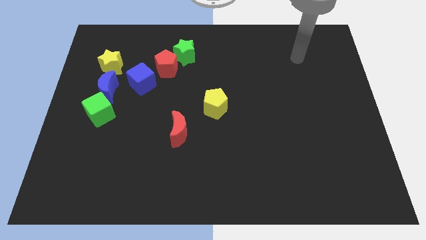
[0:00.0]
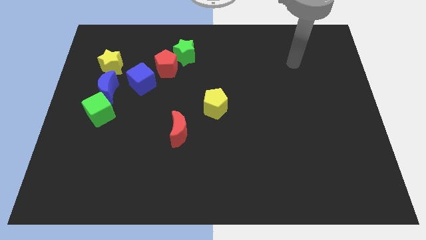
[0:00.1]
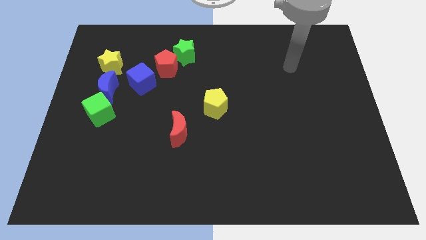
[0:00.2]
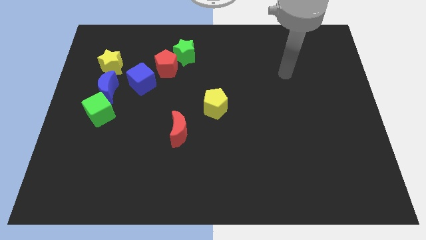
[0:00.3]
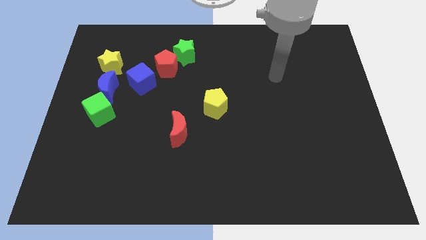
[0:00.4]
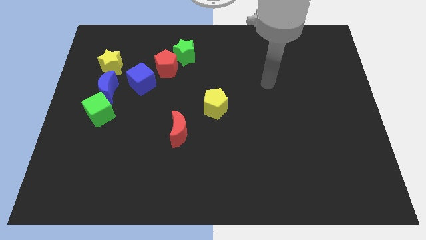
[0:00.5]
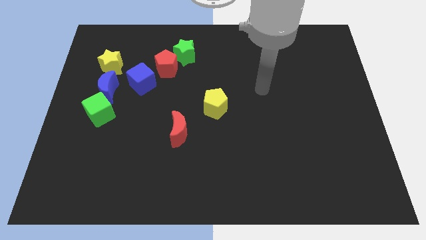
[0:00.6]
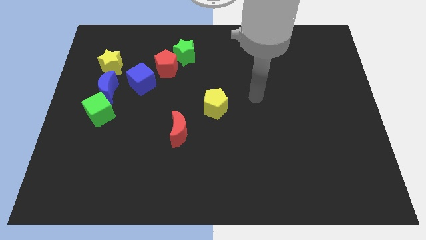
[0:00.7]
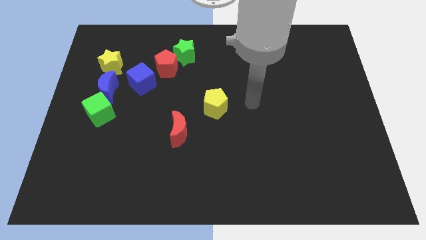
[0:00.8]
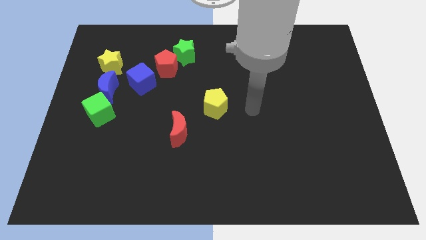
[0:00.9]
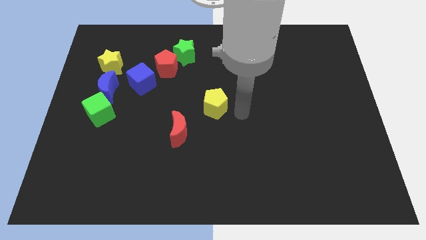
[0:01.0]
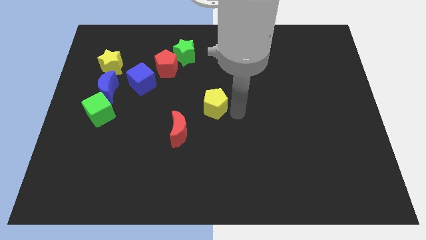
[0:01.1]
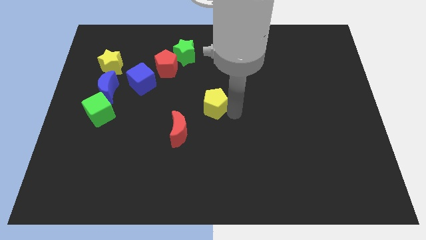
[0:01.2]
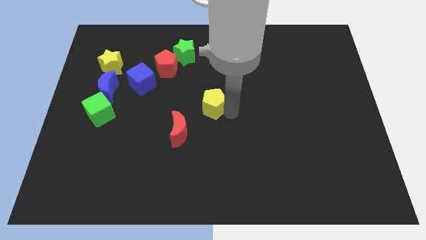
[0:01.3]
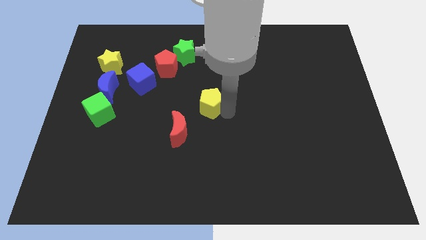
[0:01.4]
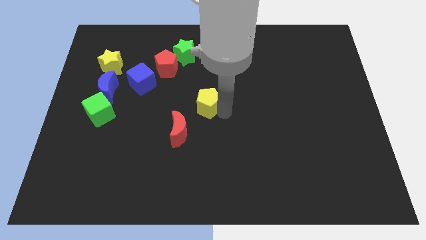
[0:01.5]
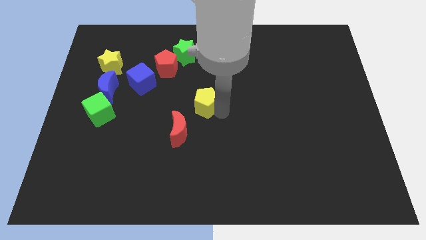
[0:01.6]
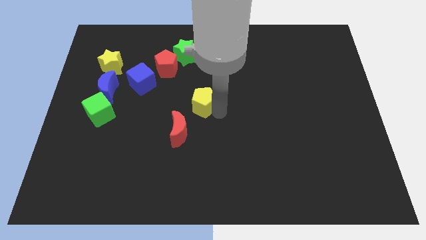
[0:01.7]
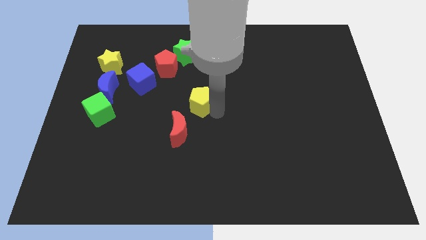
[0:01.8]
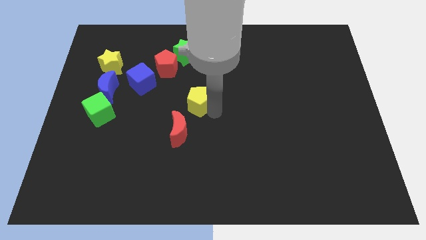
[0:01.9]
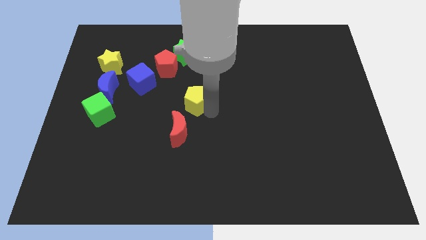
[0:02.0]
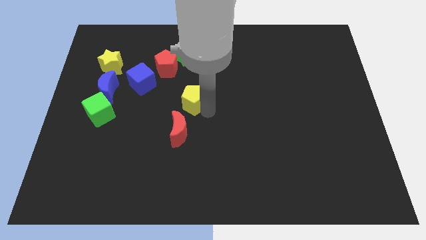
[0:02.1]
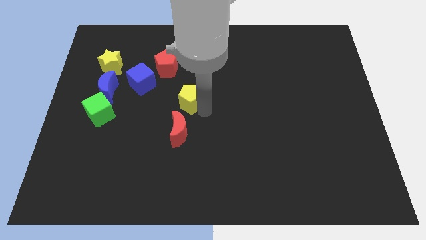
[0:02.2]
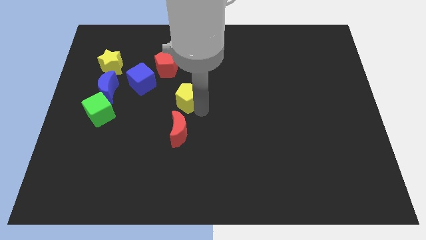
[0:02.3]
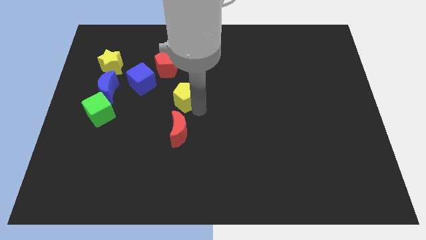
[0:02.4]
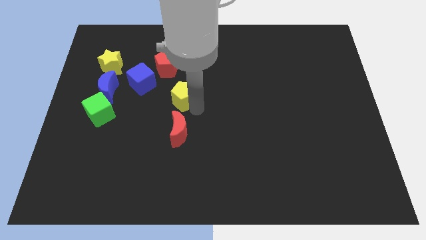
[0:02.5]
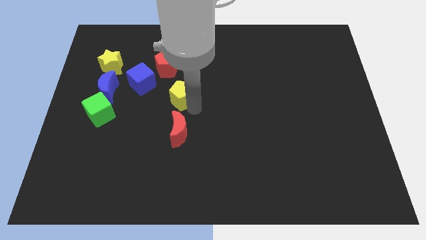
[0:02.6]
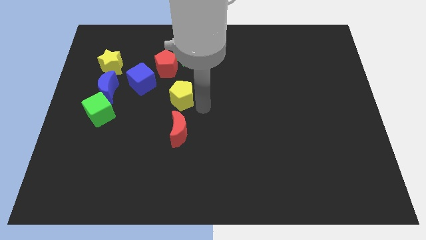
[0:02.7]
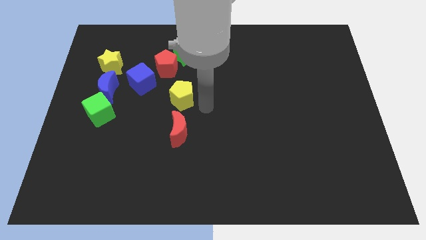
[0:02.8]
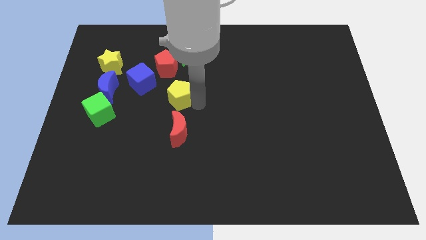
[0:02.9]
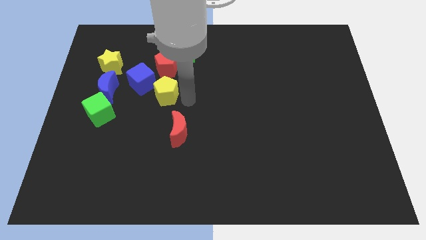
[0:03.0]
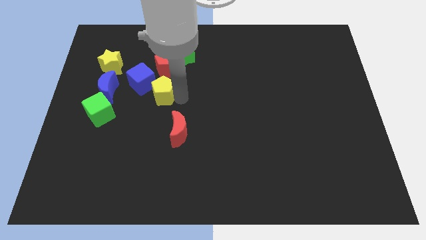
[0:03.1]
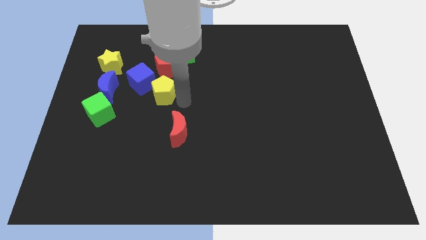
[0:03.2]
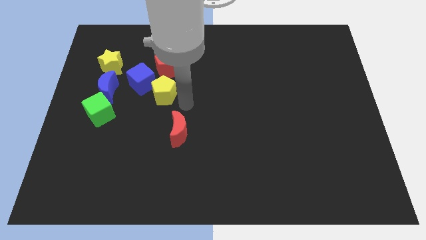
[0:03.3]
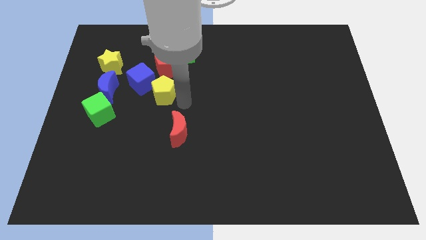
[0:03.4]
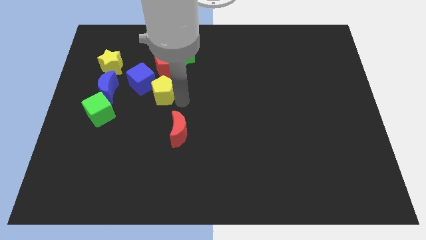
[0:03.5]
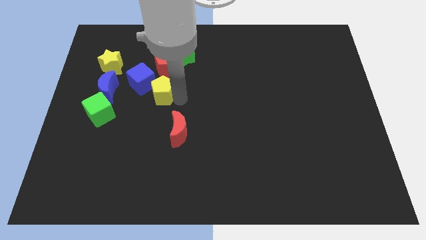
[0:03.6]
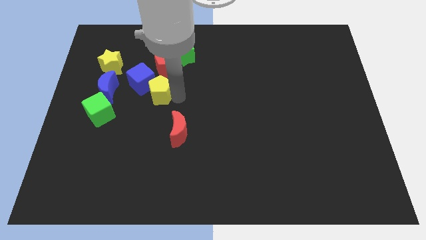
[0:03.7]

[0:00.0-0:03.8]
put the yellow pentagon towards the blue cube

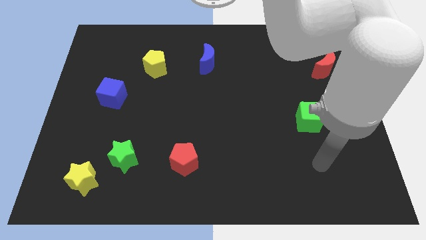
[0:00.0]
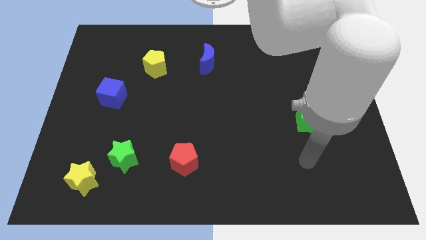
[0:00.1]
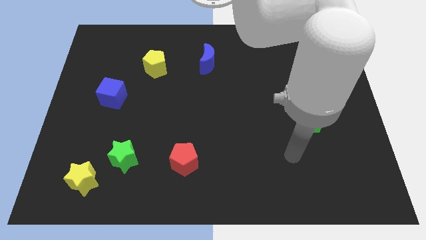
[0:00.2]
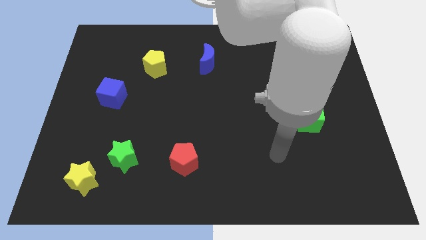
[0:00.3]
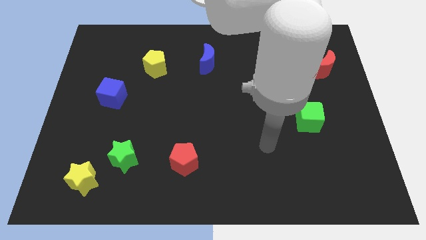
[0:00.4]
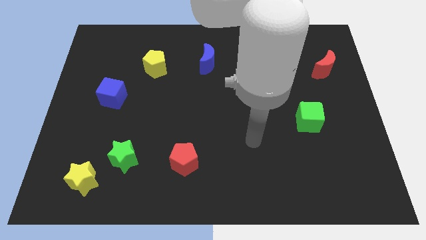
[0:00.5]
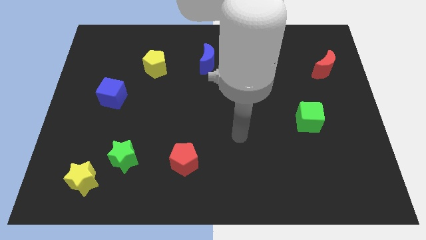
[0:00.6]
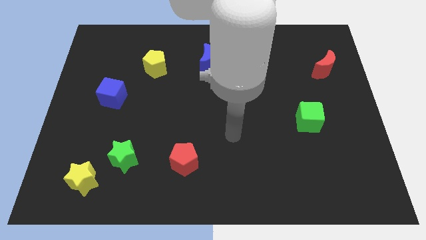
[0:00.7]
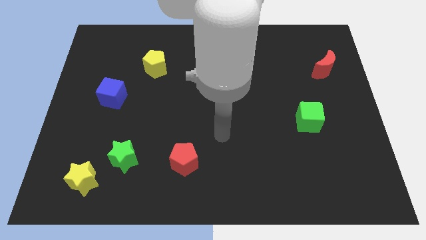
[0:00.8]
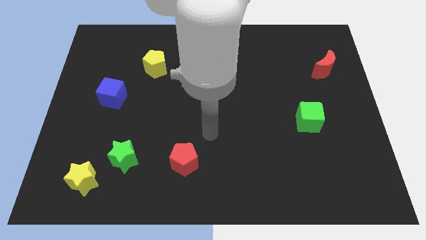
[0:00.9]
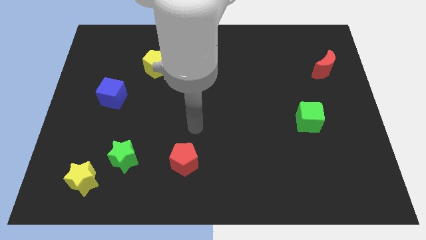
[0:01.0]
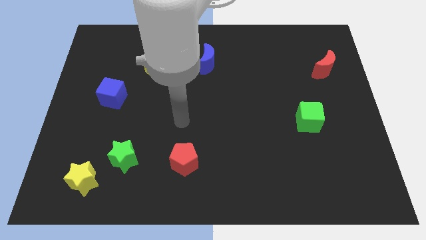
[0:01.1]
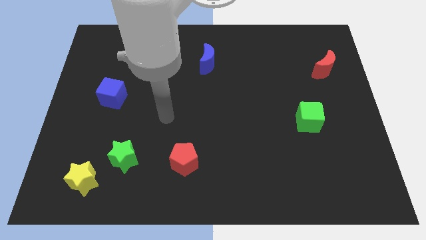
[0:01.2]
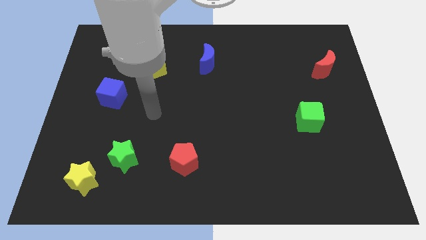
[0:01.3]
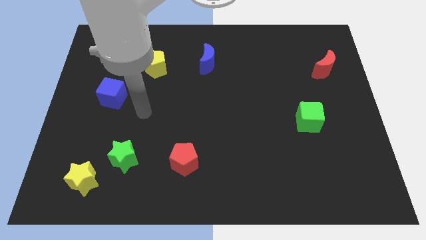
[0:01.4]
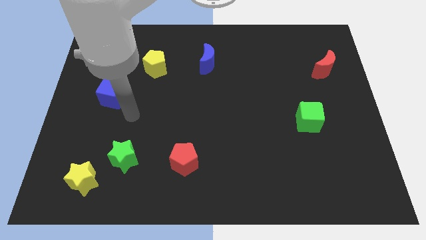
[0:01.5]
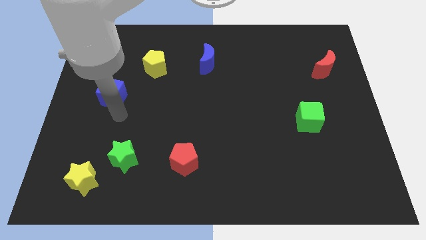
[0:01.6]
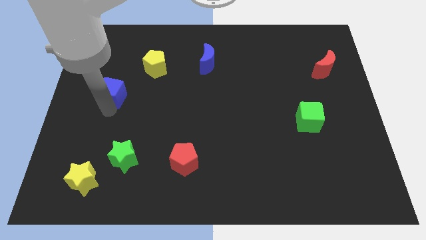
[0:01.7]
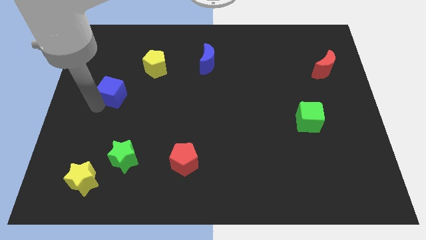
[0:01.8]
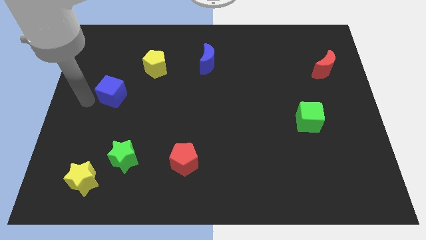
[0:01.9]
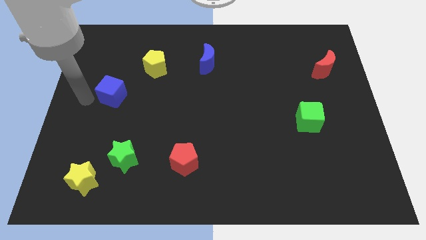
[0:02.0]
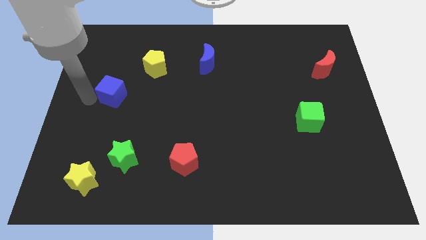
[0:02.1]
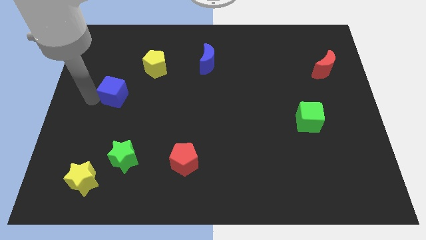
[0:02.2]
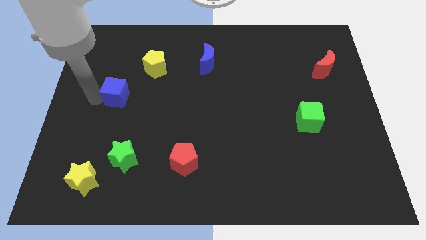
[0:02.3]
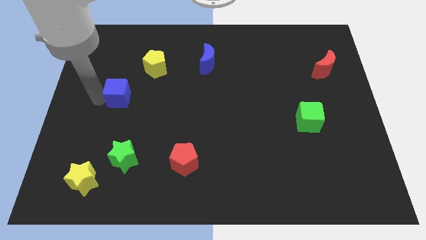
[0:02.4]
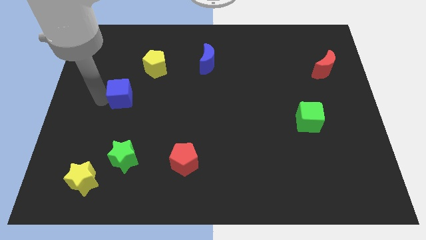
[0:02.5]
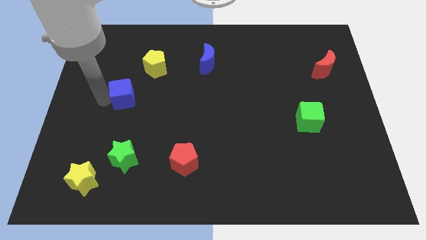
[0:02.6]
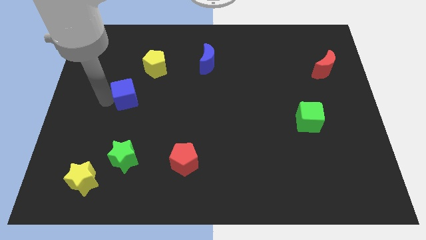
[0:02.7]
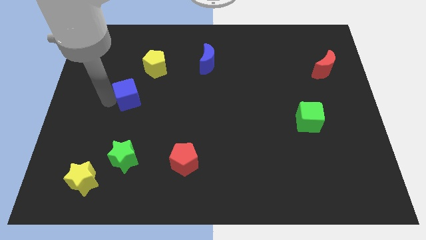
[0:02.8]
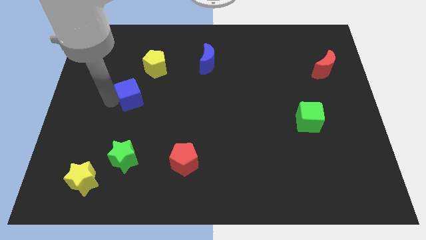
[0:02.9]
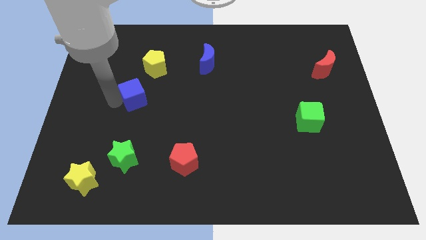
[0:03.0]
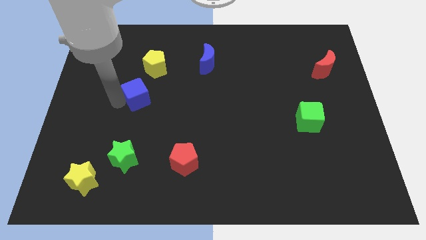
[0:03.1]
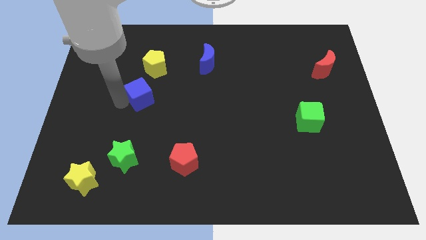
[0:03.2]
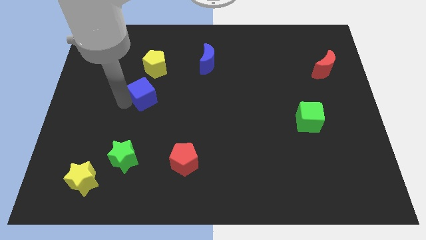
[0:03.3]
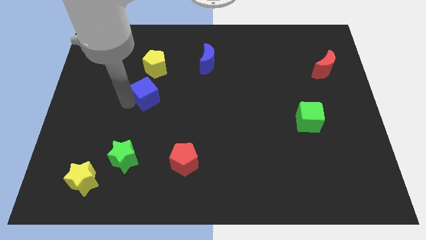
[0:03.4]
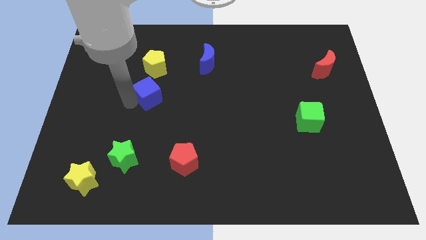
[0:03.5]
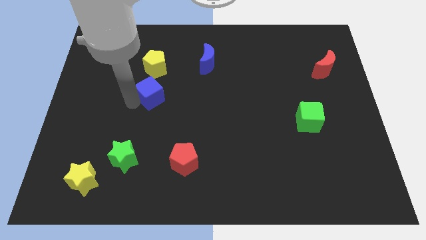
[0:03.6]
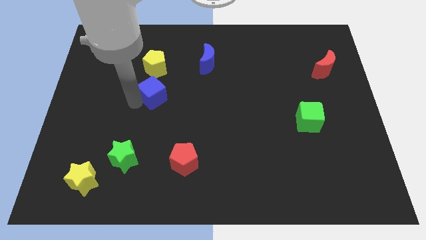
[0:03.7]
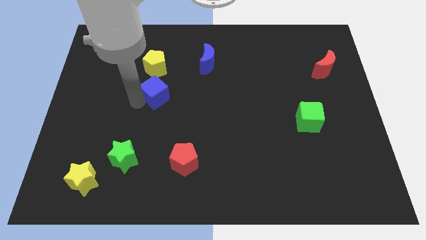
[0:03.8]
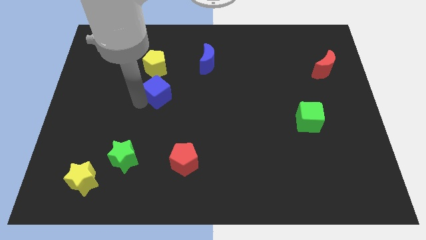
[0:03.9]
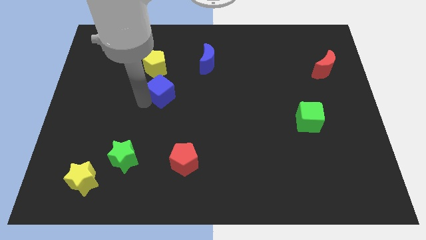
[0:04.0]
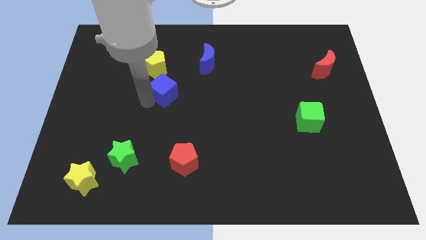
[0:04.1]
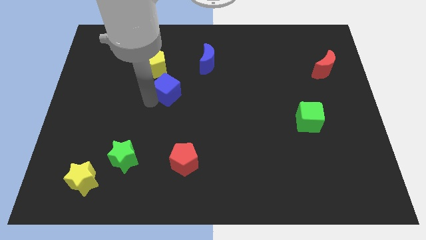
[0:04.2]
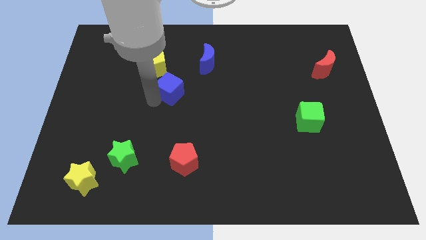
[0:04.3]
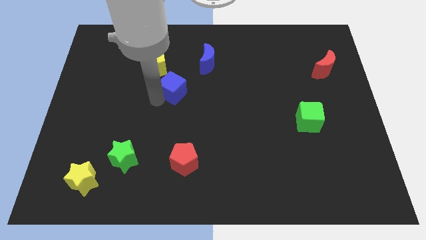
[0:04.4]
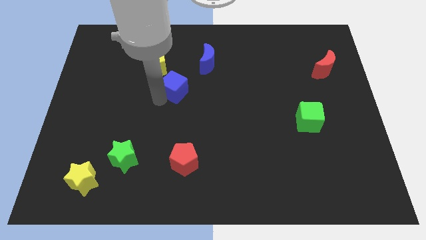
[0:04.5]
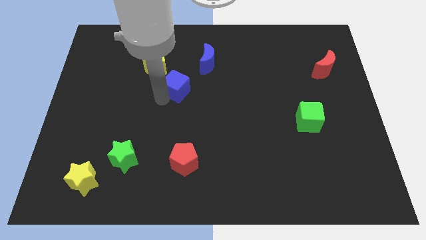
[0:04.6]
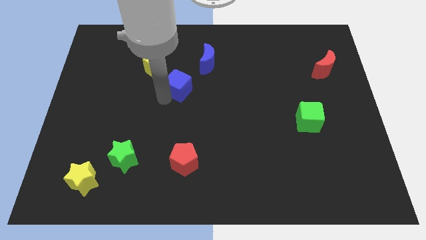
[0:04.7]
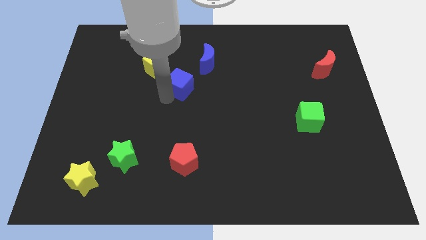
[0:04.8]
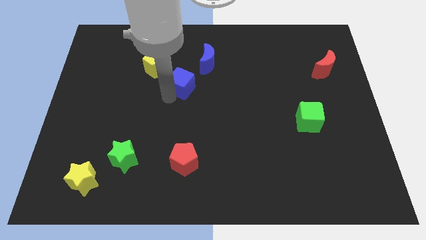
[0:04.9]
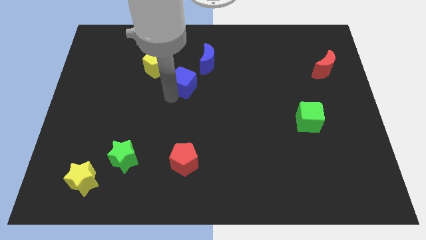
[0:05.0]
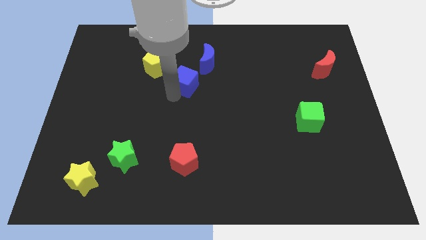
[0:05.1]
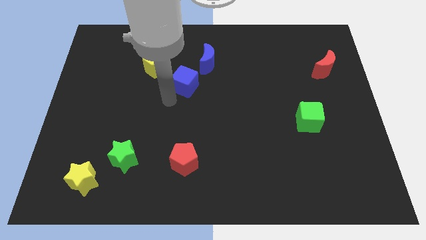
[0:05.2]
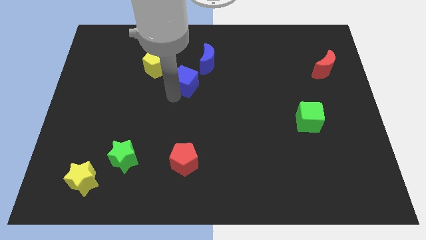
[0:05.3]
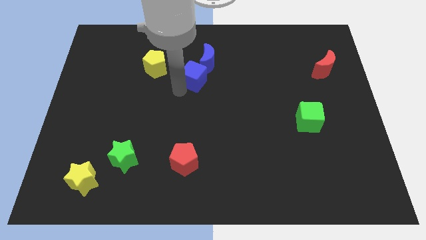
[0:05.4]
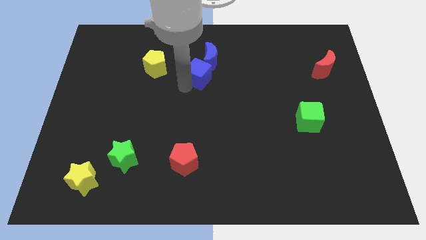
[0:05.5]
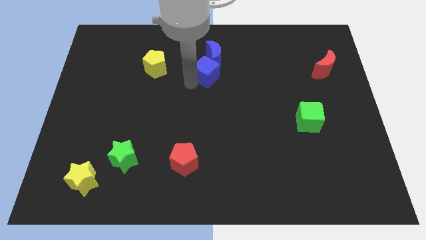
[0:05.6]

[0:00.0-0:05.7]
push the blue cube to the blue moon
